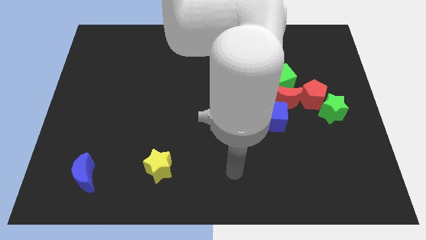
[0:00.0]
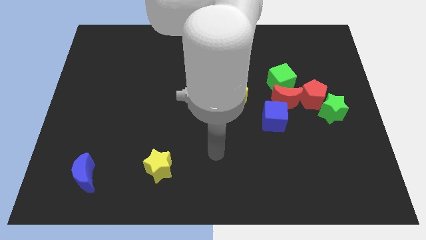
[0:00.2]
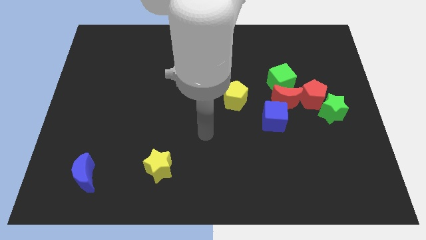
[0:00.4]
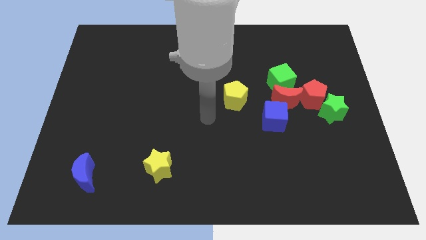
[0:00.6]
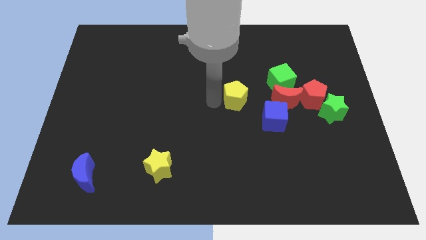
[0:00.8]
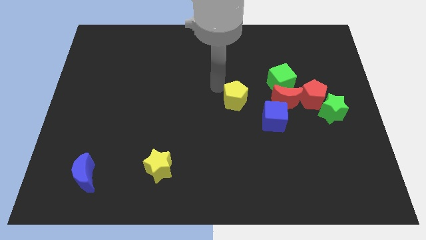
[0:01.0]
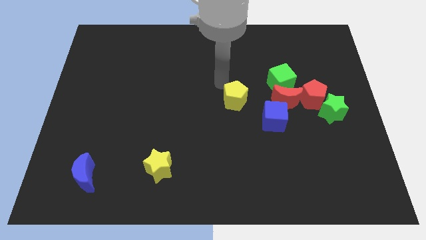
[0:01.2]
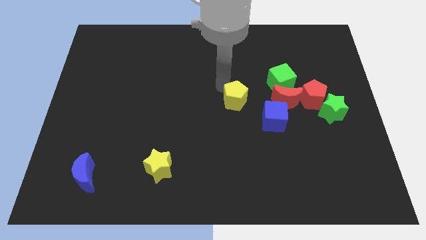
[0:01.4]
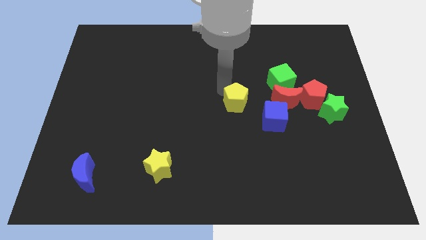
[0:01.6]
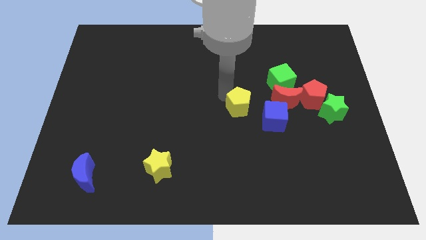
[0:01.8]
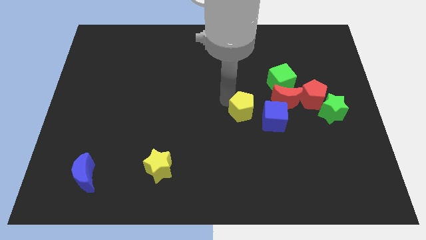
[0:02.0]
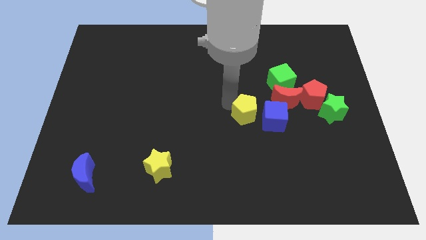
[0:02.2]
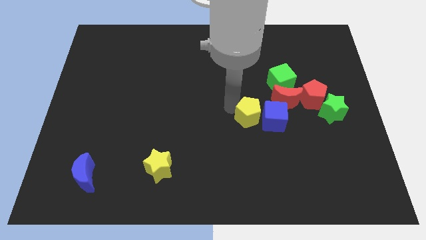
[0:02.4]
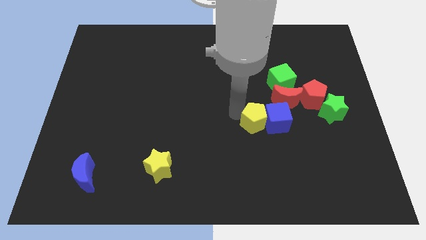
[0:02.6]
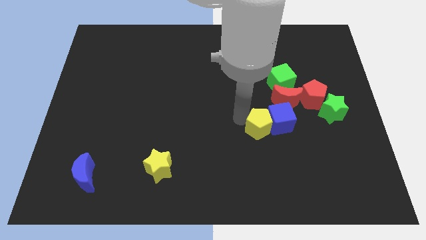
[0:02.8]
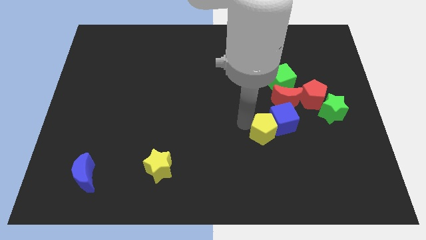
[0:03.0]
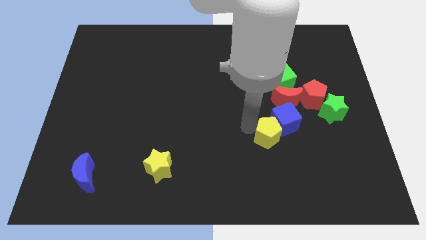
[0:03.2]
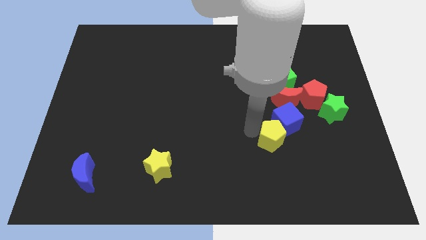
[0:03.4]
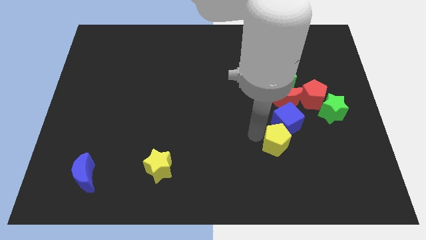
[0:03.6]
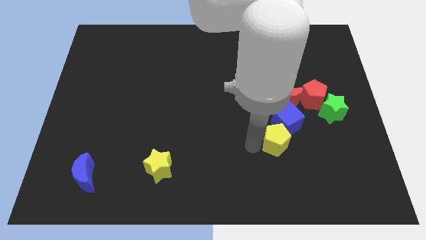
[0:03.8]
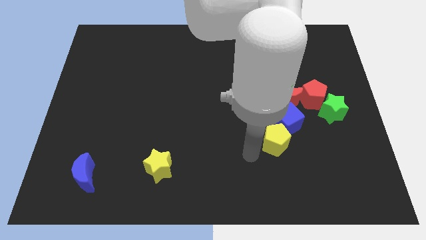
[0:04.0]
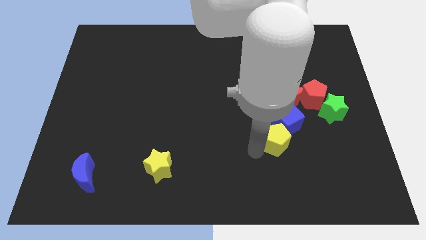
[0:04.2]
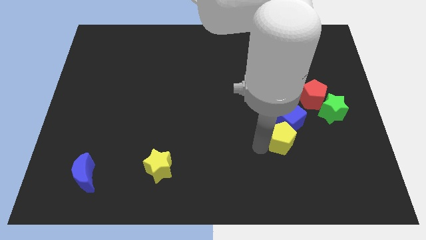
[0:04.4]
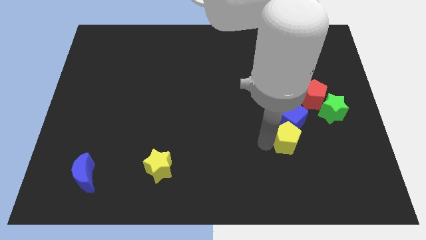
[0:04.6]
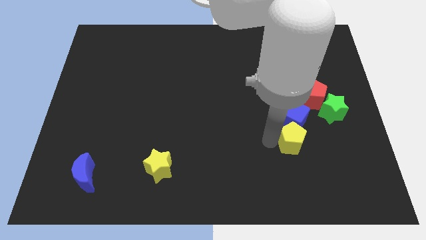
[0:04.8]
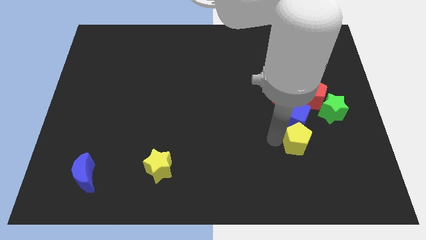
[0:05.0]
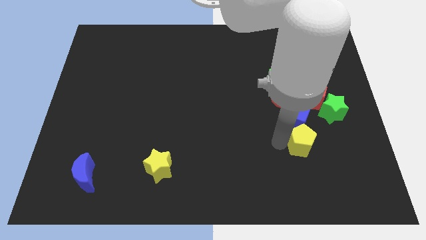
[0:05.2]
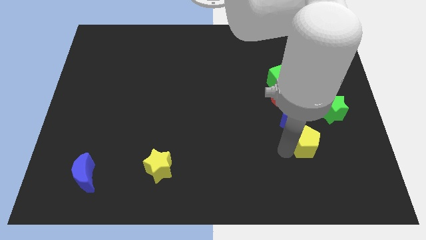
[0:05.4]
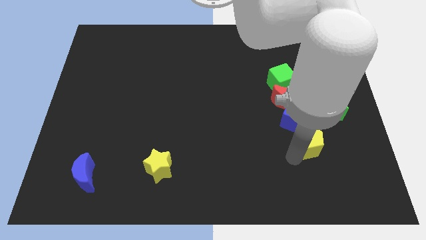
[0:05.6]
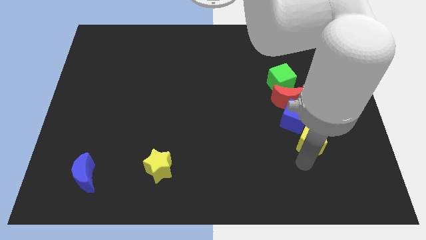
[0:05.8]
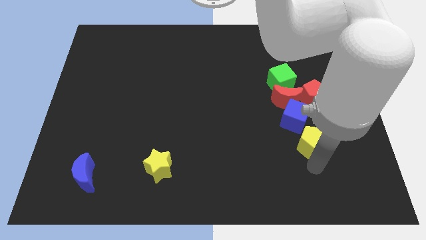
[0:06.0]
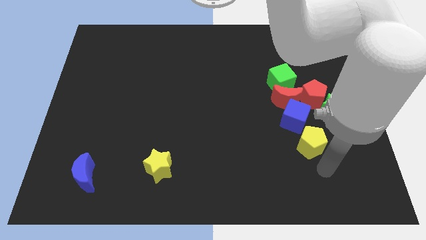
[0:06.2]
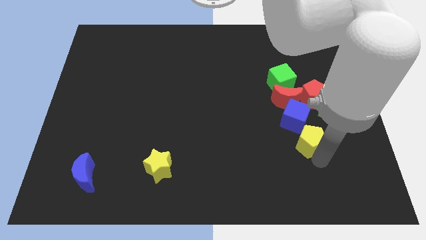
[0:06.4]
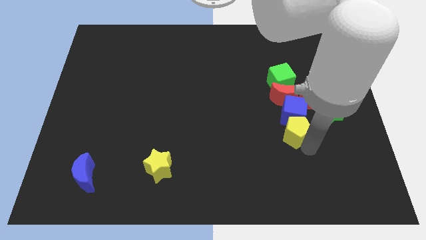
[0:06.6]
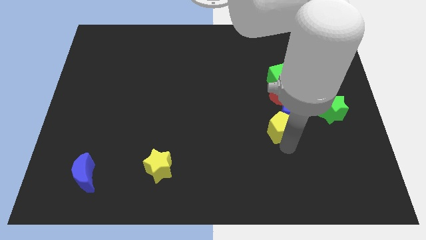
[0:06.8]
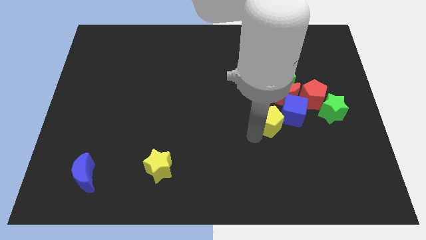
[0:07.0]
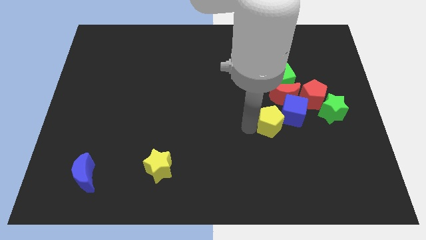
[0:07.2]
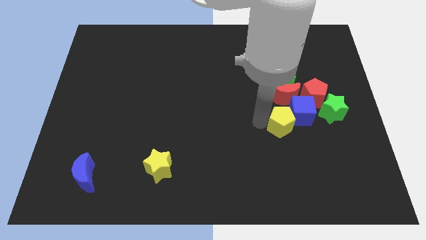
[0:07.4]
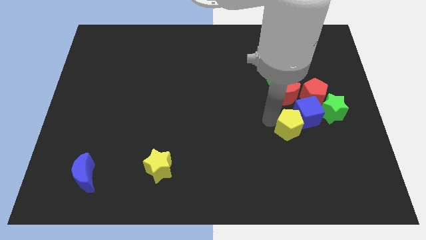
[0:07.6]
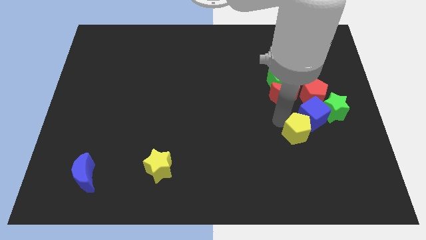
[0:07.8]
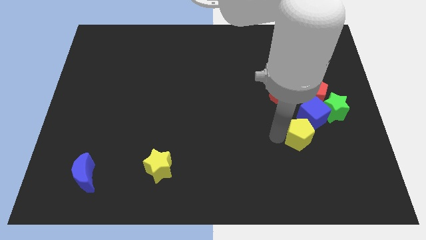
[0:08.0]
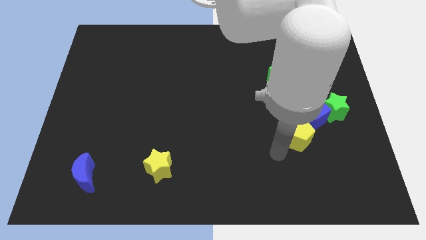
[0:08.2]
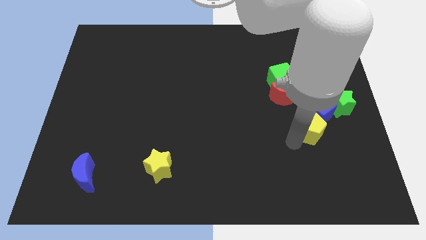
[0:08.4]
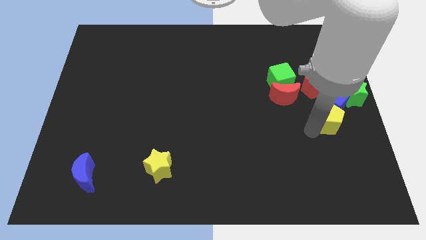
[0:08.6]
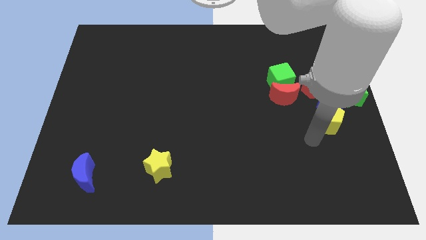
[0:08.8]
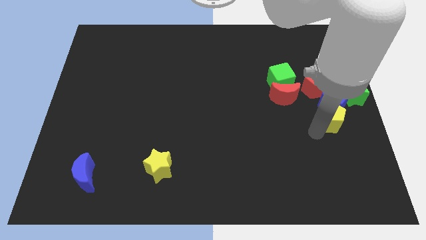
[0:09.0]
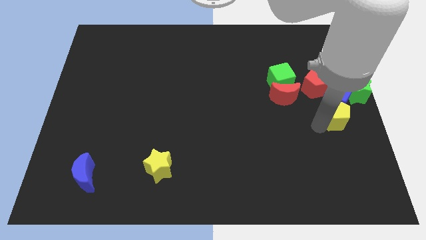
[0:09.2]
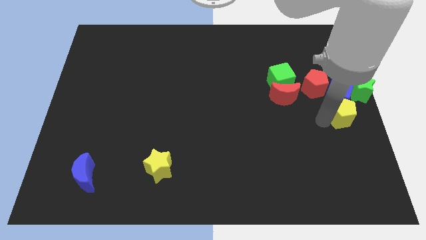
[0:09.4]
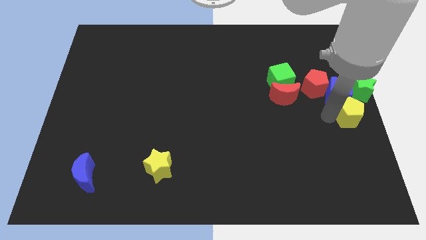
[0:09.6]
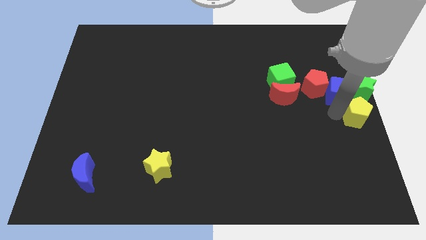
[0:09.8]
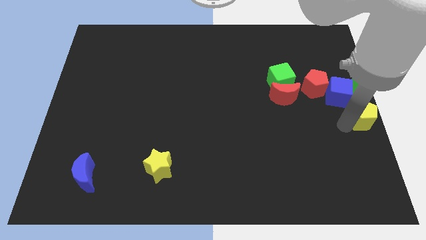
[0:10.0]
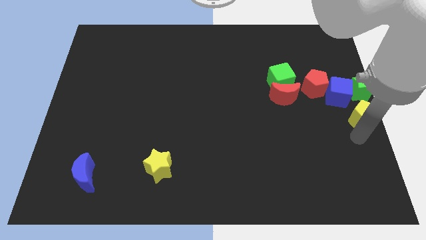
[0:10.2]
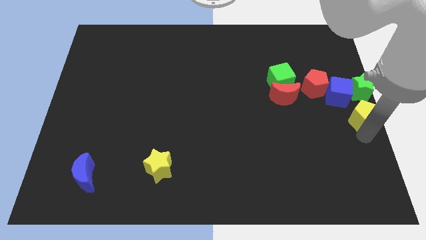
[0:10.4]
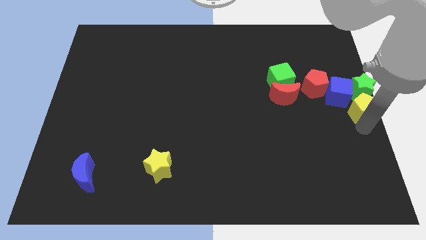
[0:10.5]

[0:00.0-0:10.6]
slide the yellow pentagon next to the green star

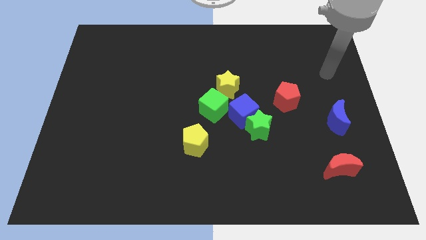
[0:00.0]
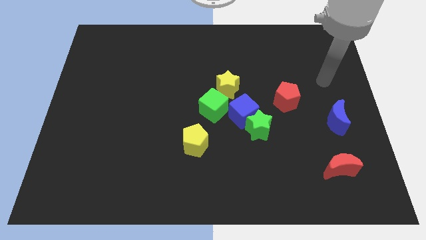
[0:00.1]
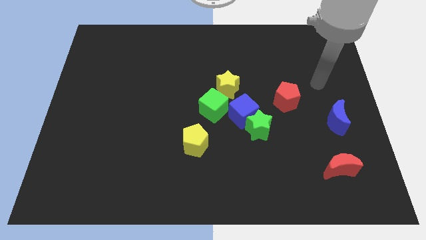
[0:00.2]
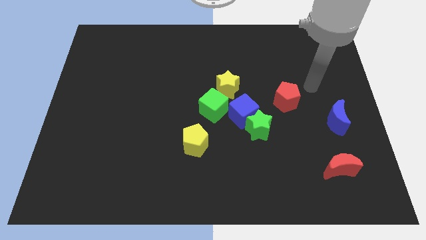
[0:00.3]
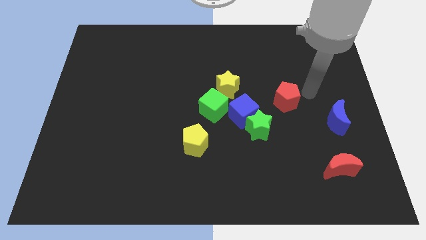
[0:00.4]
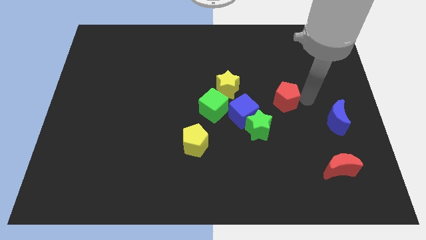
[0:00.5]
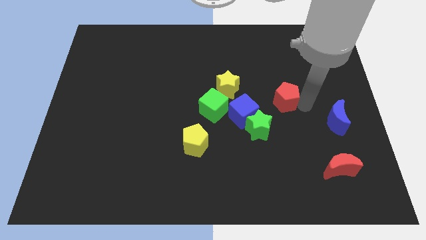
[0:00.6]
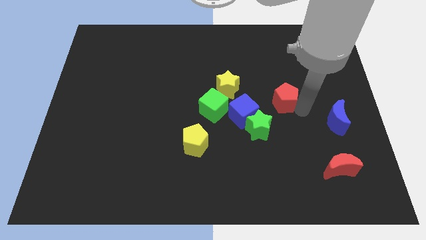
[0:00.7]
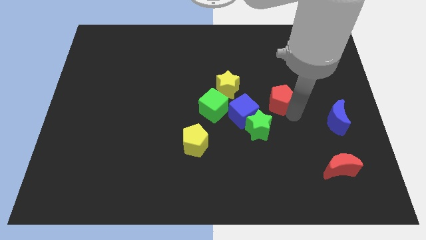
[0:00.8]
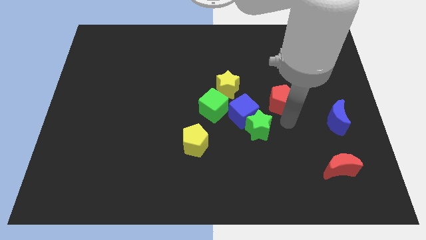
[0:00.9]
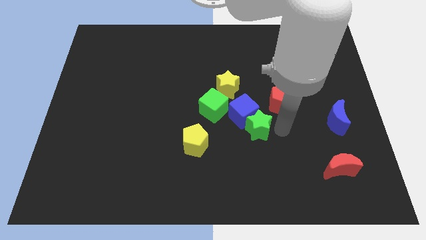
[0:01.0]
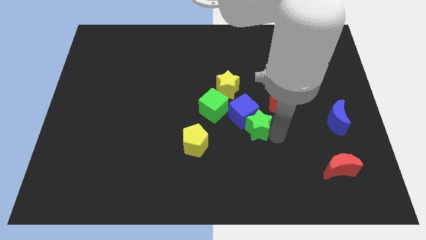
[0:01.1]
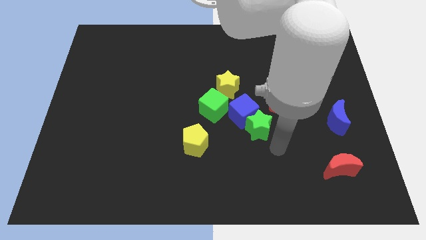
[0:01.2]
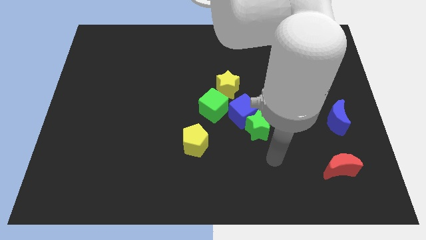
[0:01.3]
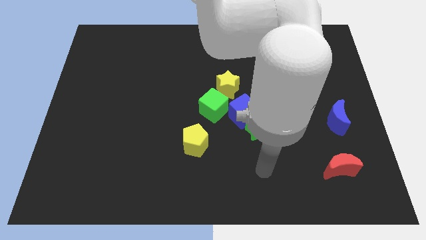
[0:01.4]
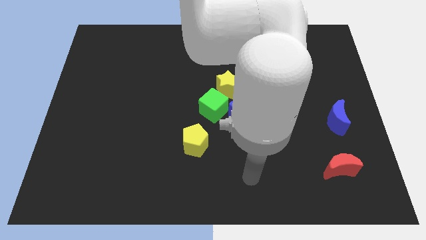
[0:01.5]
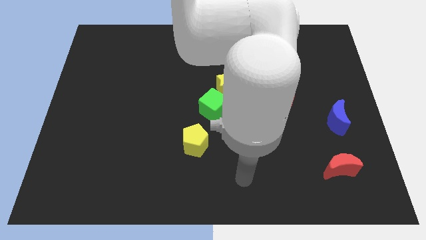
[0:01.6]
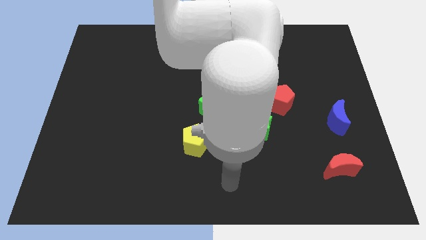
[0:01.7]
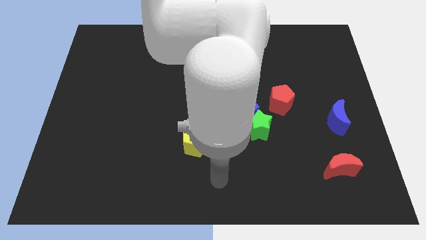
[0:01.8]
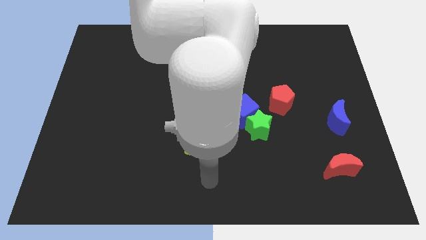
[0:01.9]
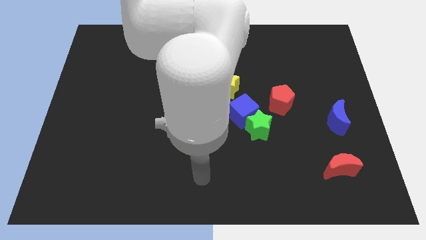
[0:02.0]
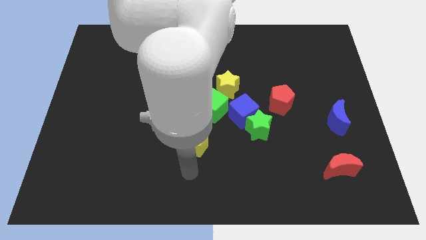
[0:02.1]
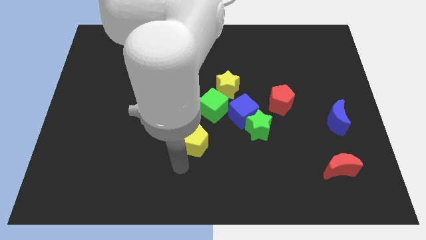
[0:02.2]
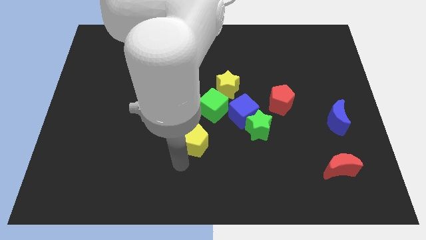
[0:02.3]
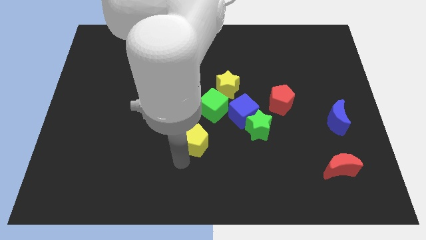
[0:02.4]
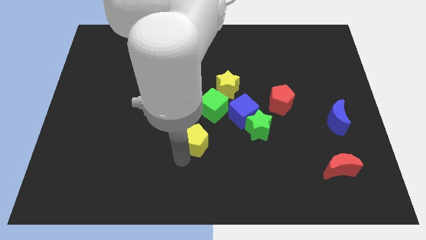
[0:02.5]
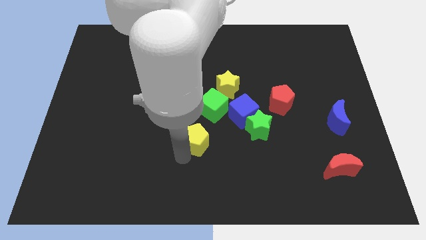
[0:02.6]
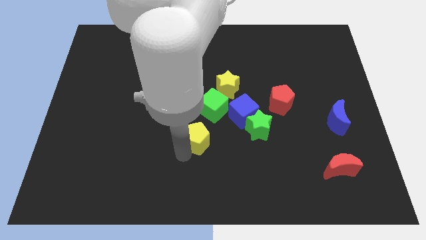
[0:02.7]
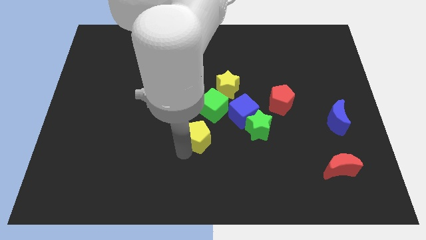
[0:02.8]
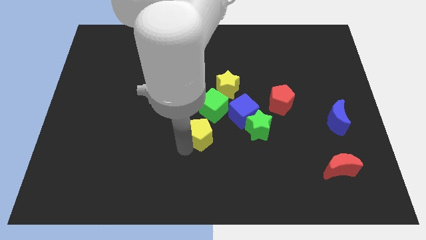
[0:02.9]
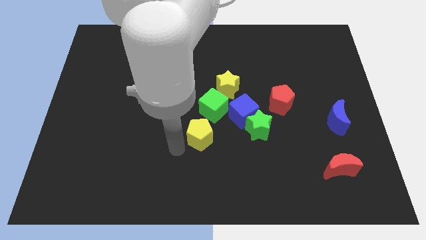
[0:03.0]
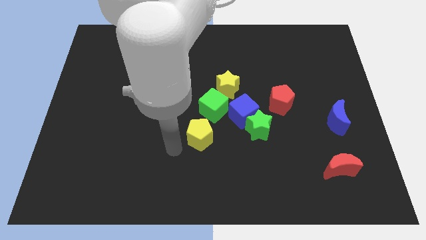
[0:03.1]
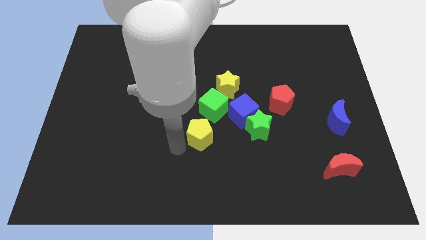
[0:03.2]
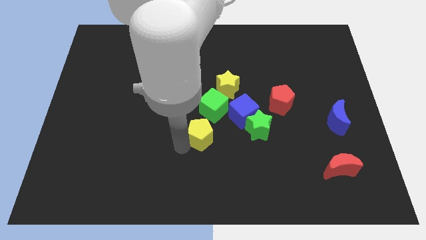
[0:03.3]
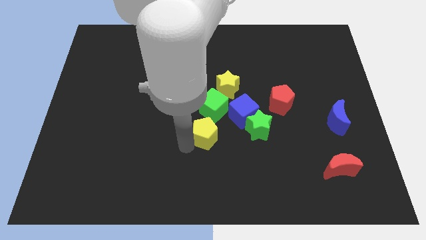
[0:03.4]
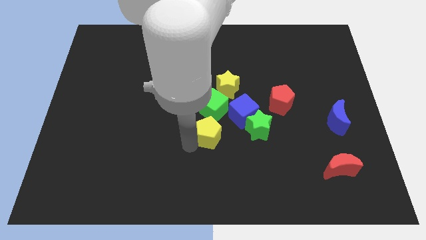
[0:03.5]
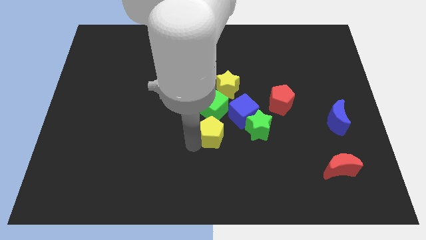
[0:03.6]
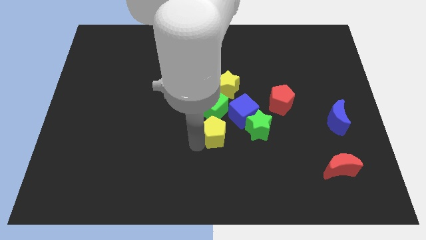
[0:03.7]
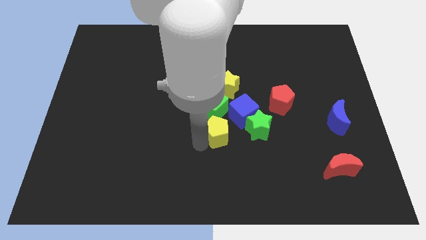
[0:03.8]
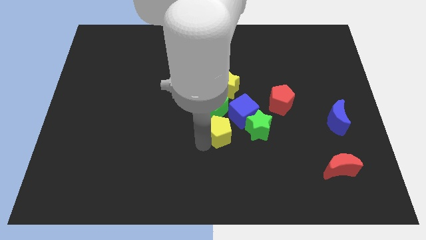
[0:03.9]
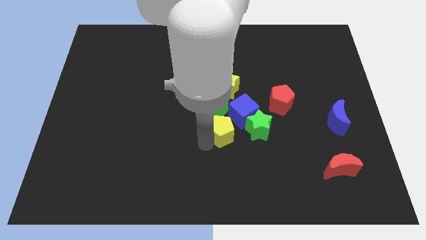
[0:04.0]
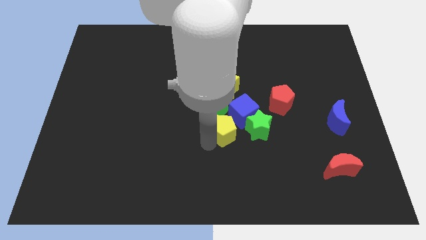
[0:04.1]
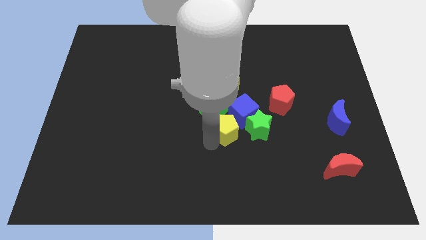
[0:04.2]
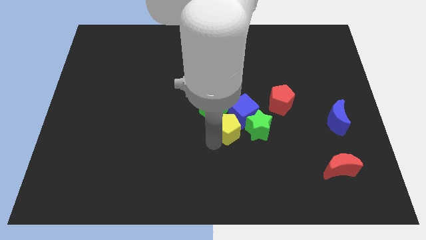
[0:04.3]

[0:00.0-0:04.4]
put the yellow pentagon next to the blue cube
